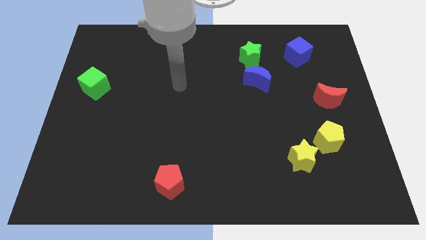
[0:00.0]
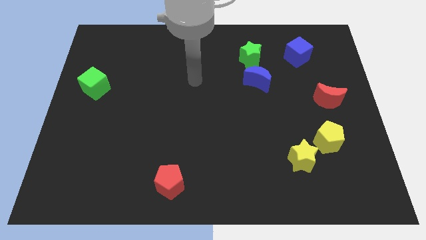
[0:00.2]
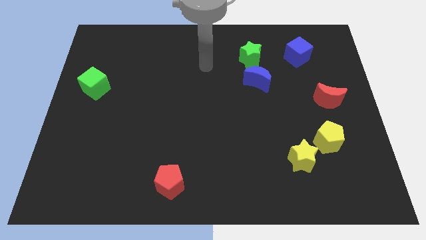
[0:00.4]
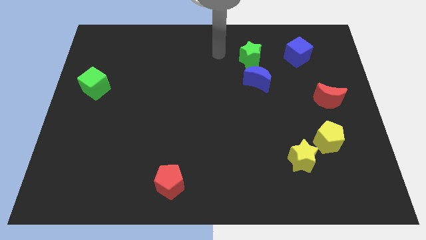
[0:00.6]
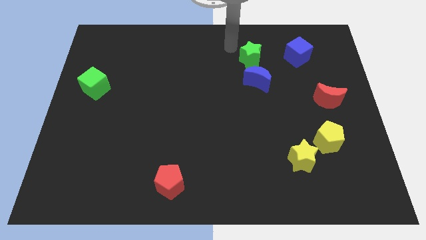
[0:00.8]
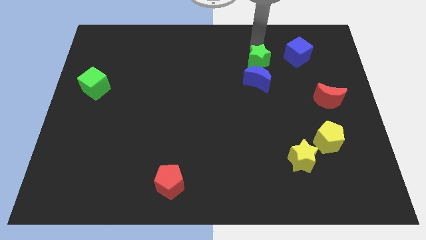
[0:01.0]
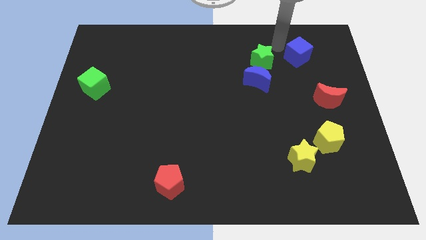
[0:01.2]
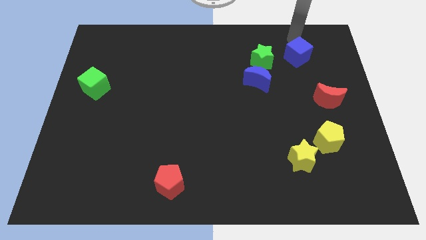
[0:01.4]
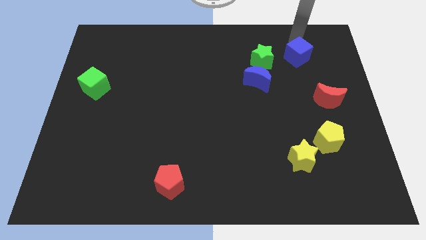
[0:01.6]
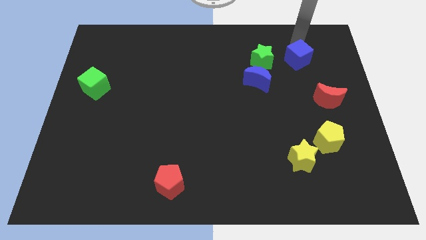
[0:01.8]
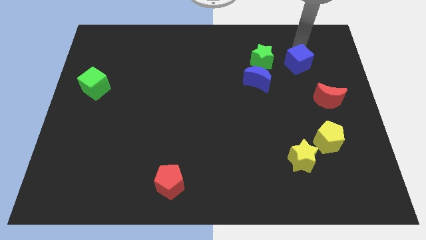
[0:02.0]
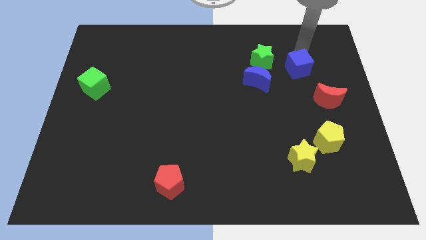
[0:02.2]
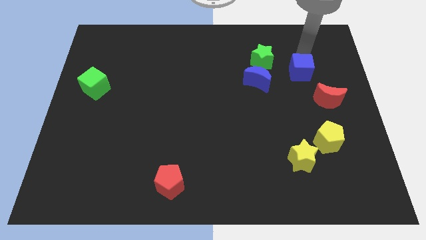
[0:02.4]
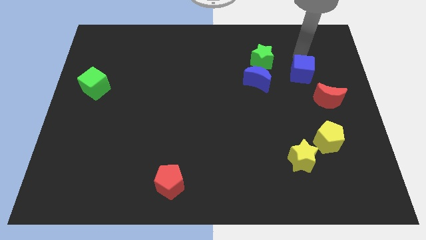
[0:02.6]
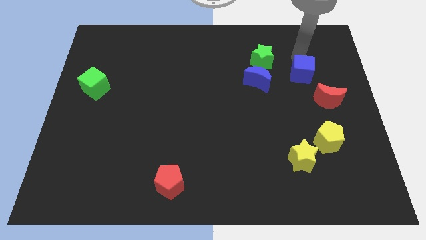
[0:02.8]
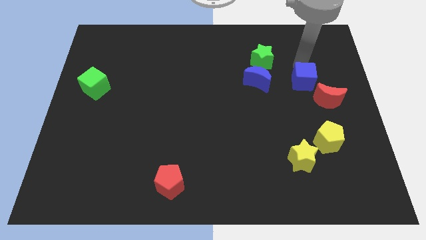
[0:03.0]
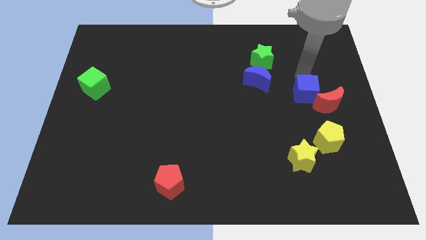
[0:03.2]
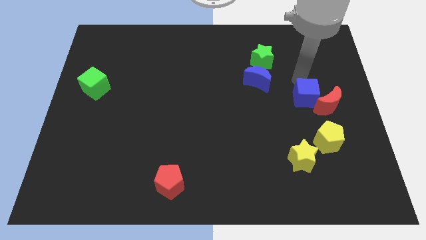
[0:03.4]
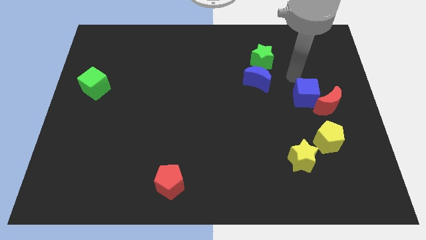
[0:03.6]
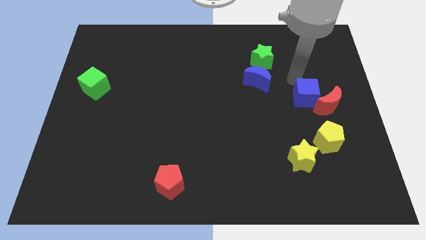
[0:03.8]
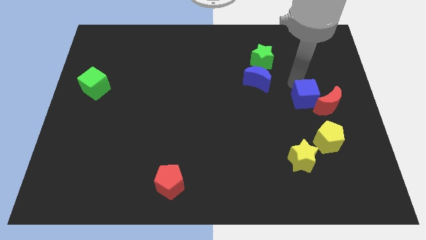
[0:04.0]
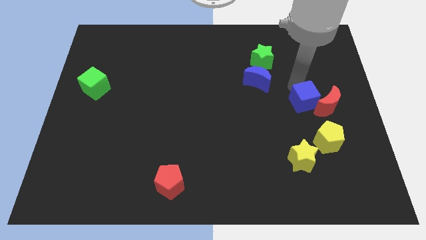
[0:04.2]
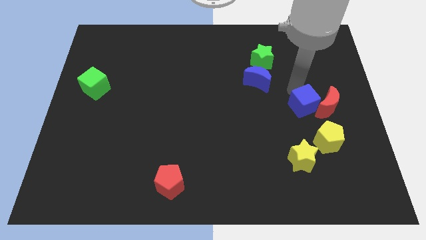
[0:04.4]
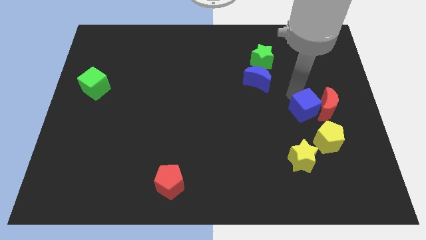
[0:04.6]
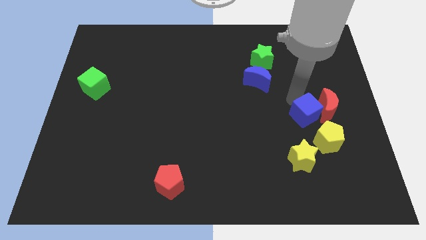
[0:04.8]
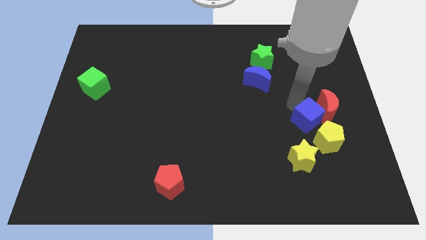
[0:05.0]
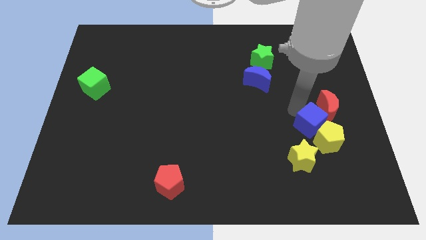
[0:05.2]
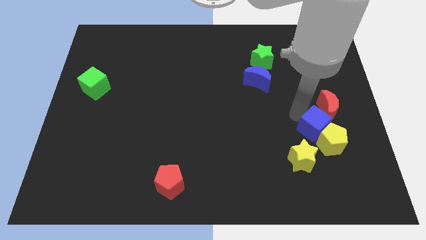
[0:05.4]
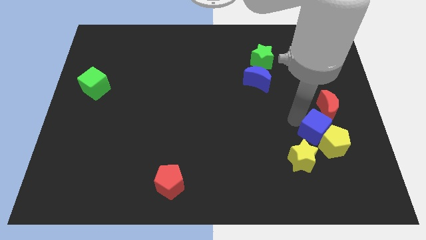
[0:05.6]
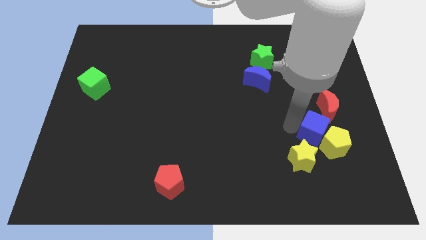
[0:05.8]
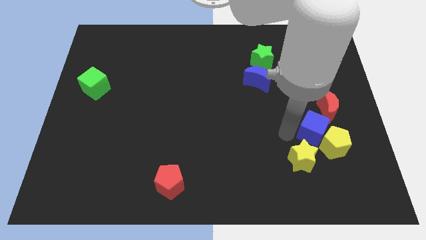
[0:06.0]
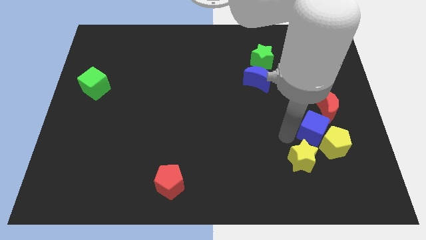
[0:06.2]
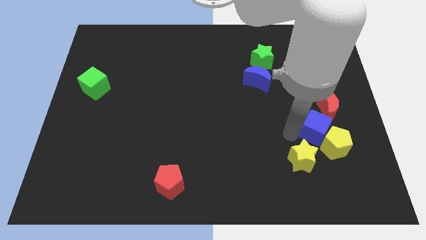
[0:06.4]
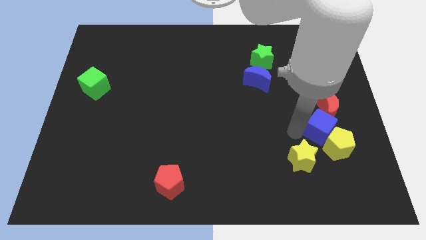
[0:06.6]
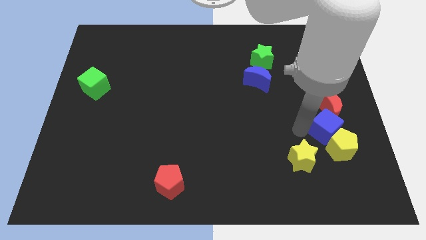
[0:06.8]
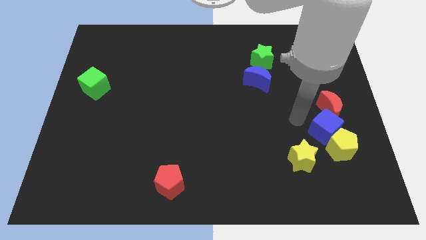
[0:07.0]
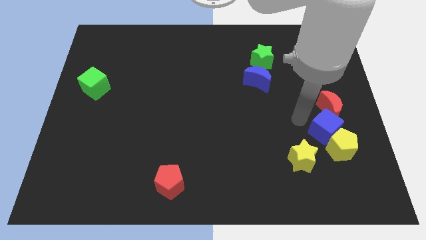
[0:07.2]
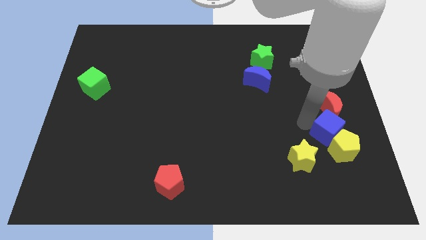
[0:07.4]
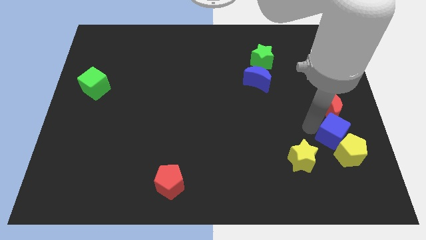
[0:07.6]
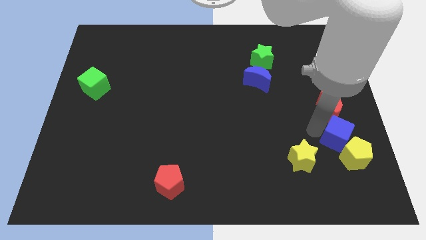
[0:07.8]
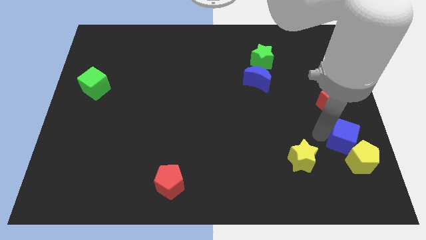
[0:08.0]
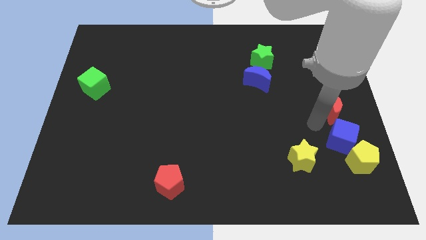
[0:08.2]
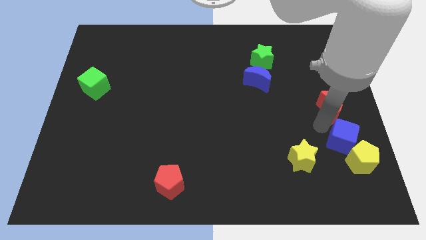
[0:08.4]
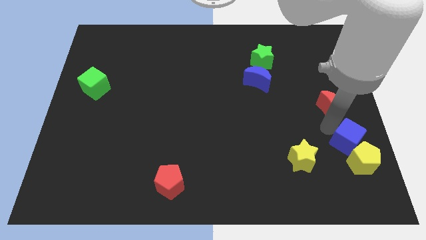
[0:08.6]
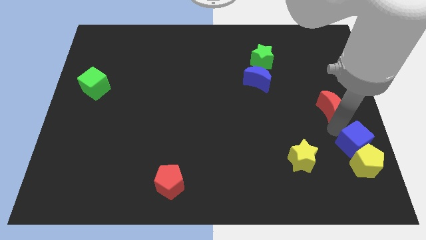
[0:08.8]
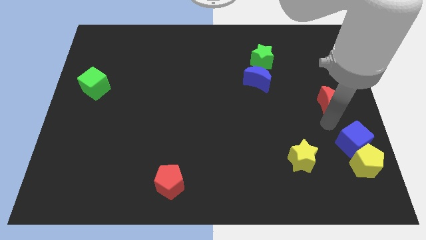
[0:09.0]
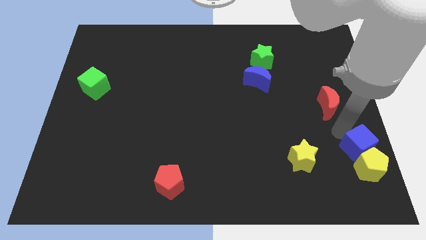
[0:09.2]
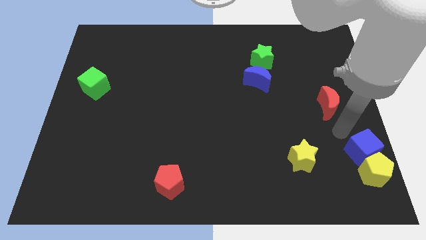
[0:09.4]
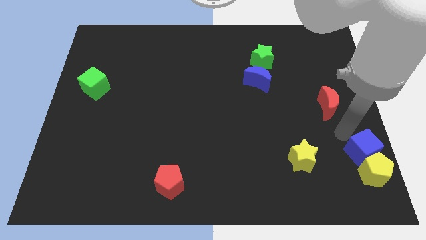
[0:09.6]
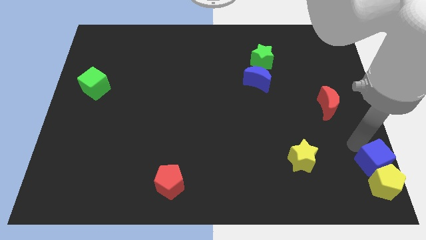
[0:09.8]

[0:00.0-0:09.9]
slide the blue cube to the lower right corner

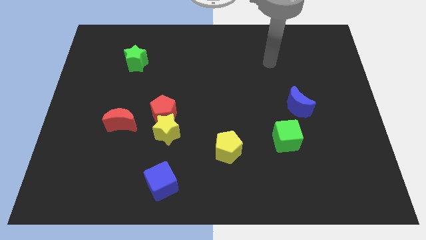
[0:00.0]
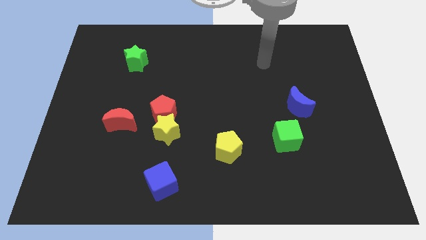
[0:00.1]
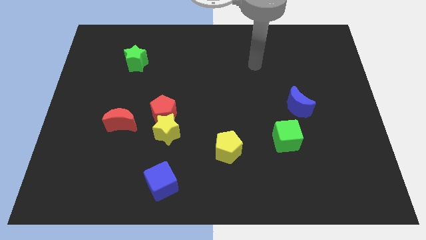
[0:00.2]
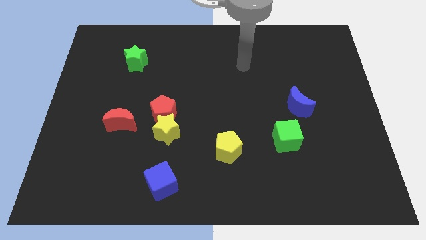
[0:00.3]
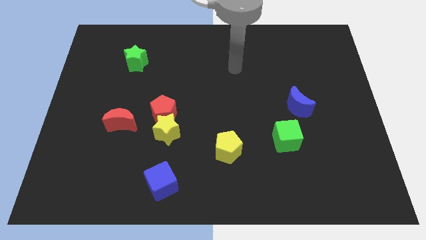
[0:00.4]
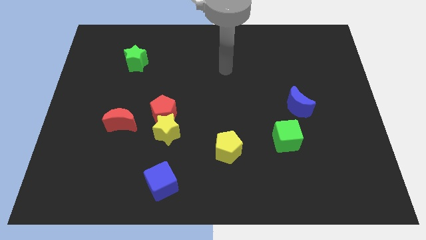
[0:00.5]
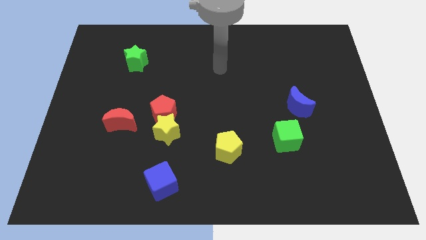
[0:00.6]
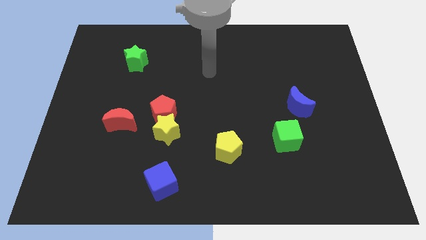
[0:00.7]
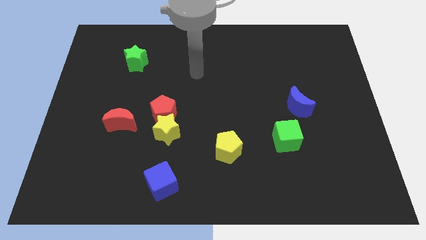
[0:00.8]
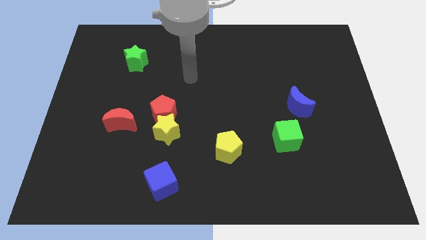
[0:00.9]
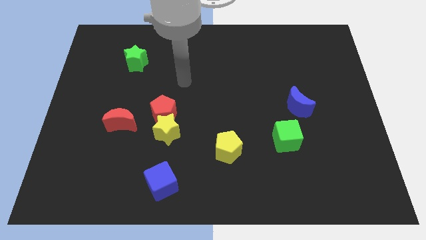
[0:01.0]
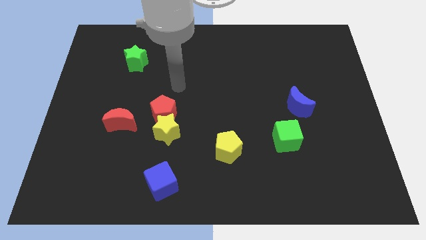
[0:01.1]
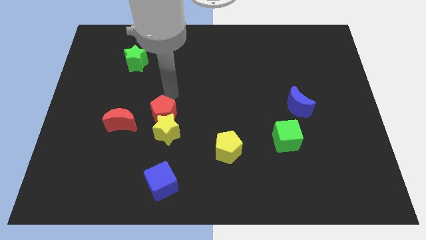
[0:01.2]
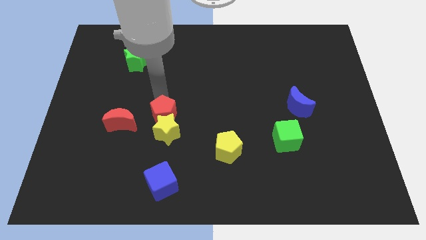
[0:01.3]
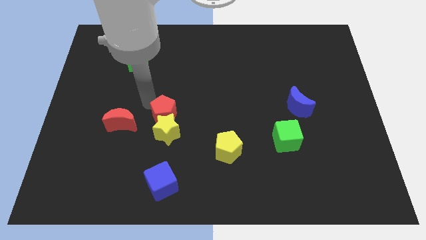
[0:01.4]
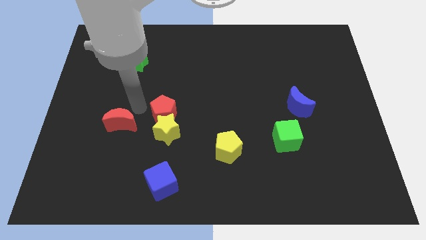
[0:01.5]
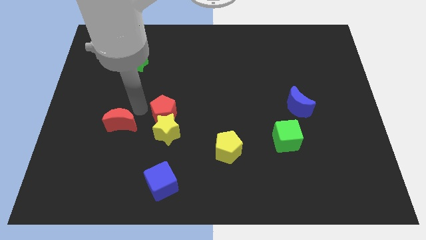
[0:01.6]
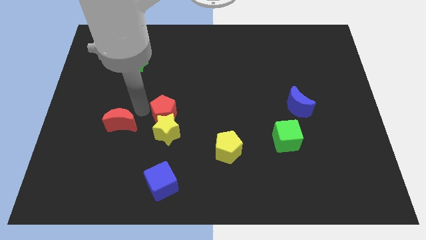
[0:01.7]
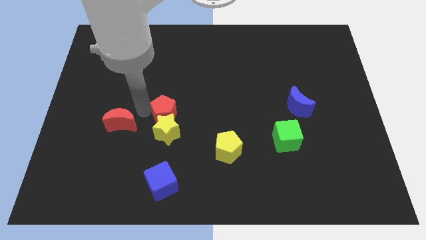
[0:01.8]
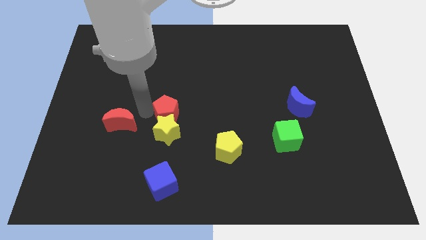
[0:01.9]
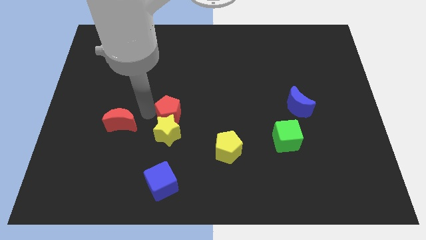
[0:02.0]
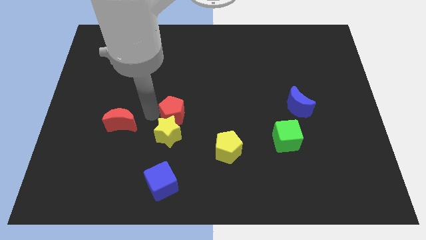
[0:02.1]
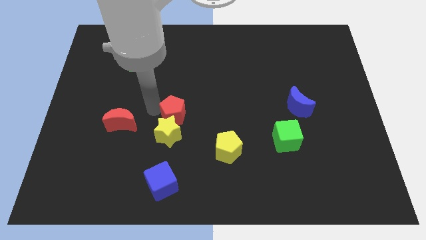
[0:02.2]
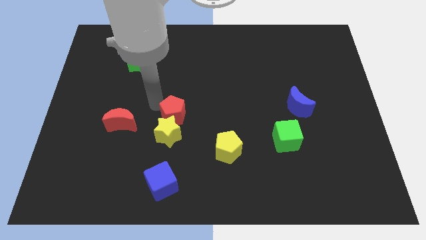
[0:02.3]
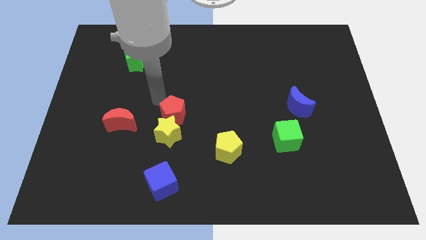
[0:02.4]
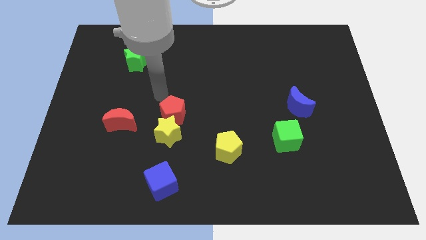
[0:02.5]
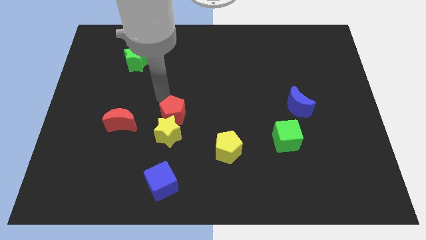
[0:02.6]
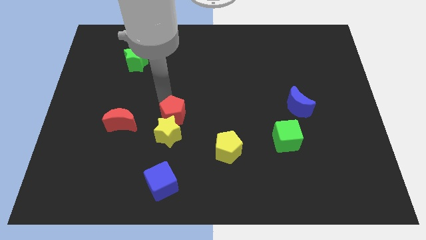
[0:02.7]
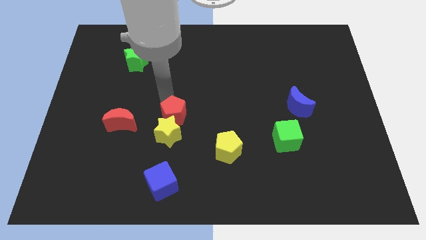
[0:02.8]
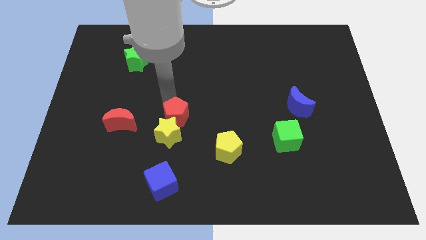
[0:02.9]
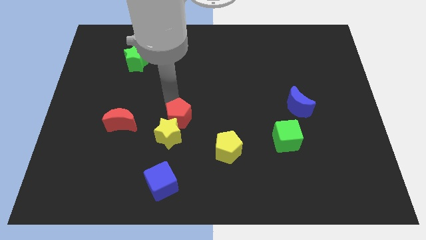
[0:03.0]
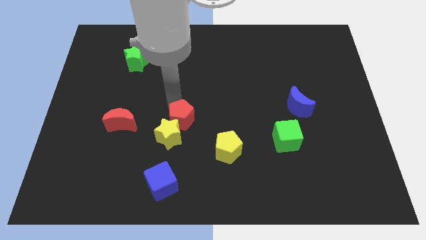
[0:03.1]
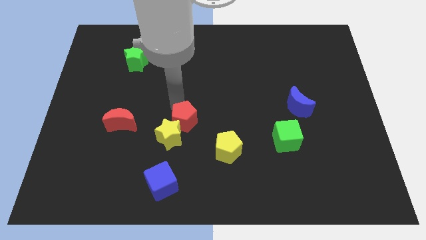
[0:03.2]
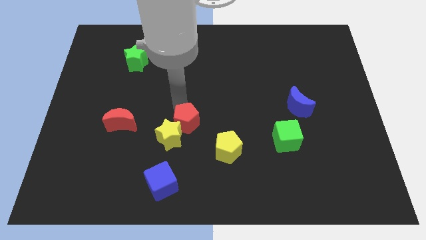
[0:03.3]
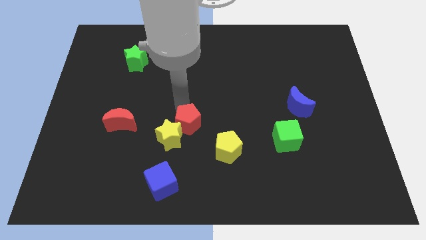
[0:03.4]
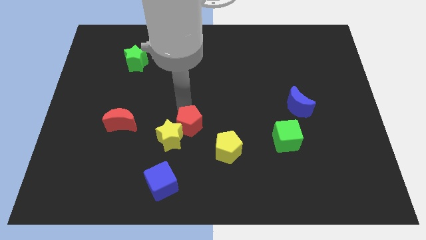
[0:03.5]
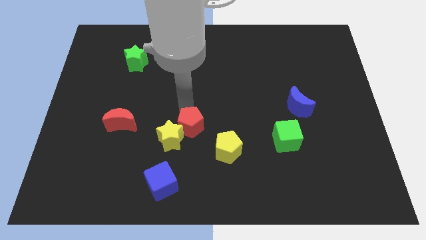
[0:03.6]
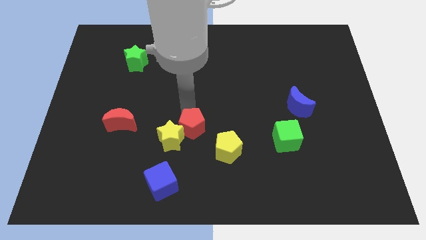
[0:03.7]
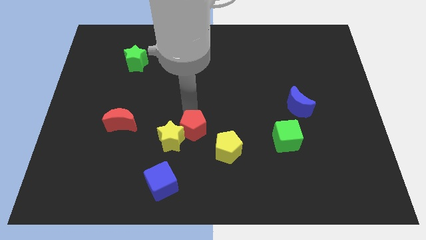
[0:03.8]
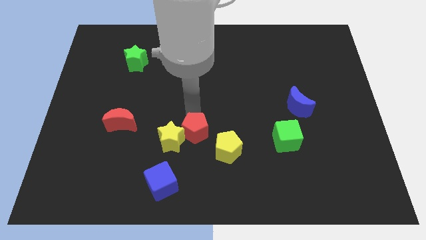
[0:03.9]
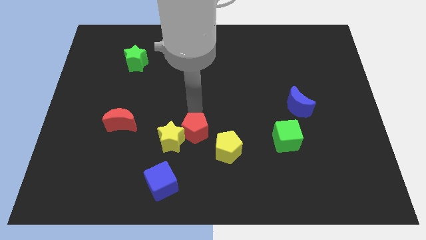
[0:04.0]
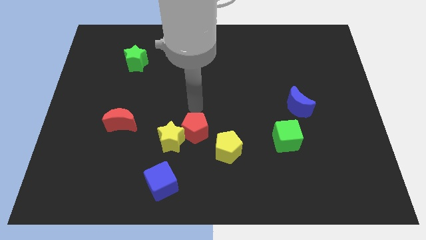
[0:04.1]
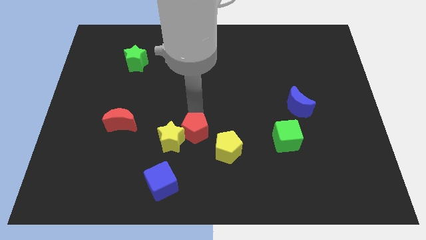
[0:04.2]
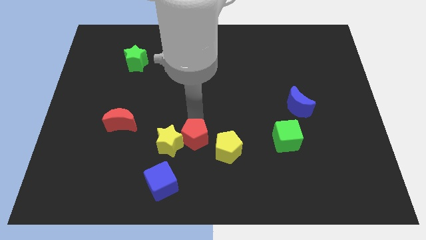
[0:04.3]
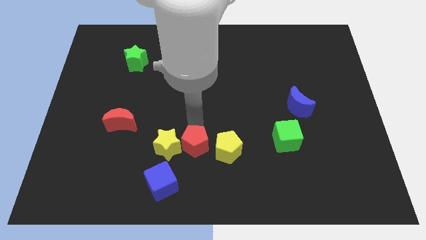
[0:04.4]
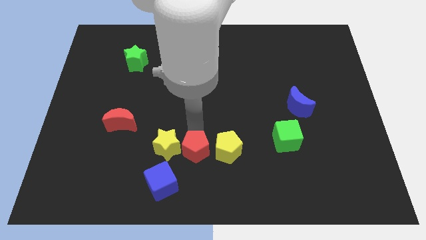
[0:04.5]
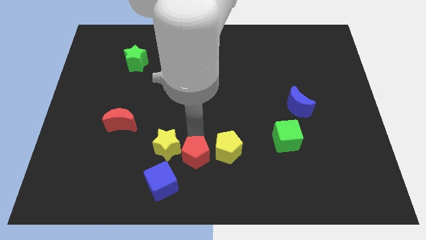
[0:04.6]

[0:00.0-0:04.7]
put the red pentagon to the bottom
